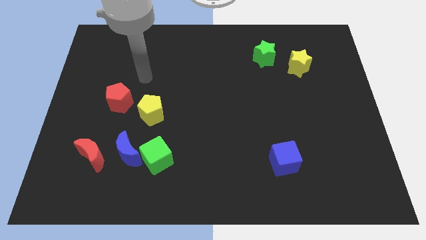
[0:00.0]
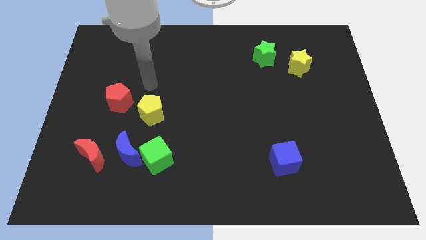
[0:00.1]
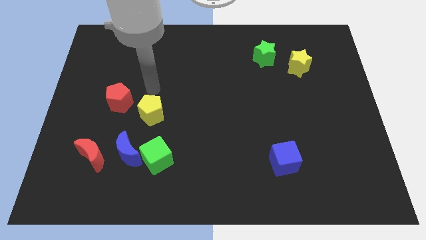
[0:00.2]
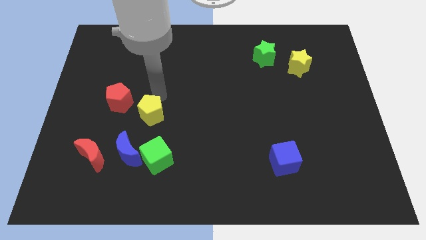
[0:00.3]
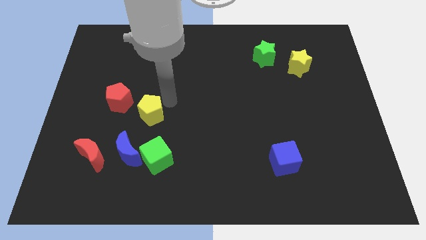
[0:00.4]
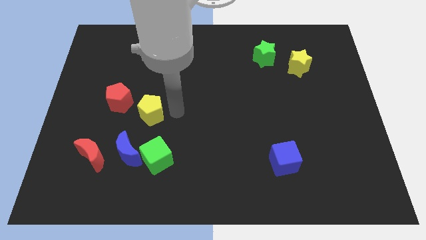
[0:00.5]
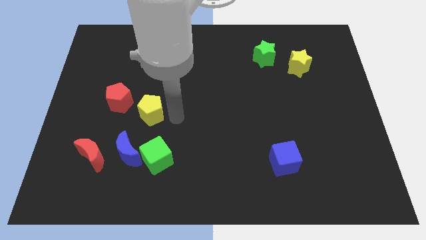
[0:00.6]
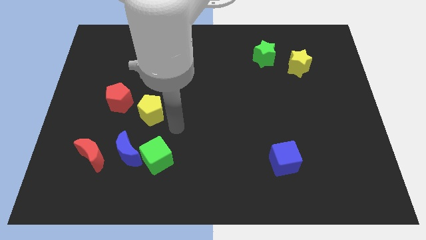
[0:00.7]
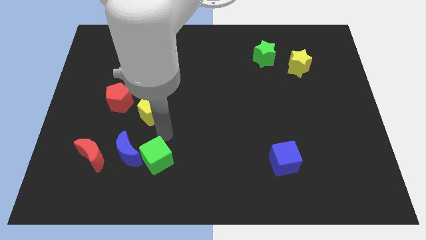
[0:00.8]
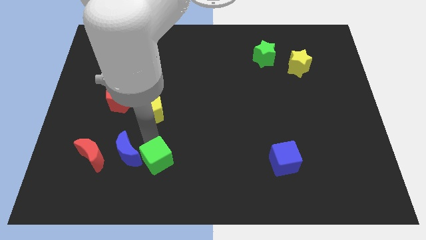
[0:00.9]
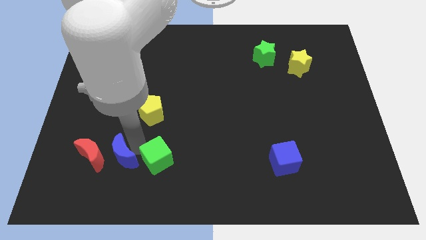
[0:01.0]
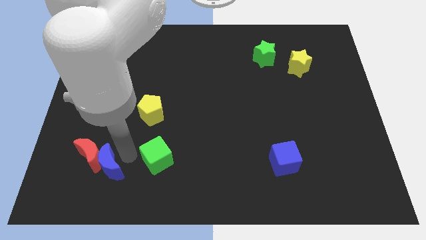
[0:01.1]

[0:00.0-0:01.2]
separate the green cube from the blue moon

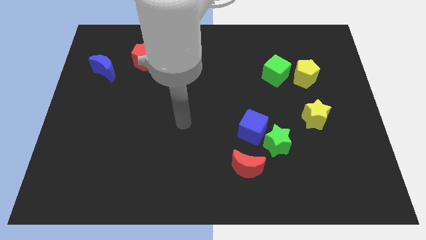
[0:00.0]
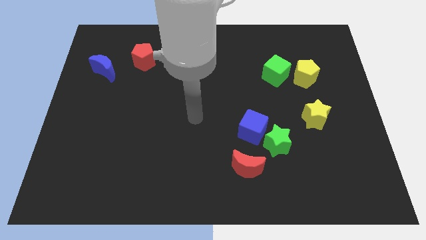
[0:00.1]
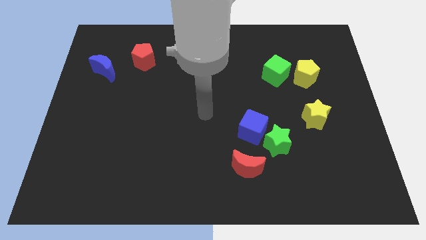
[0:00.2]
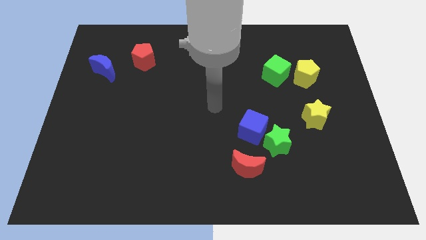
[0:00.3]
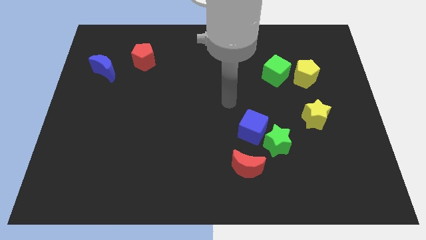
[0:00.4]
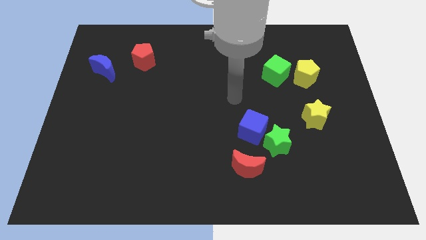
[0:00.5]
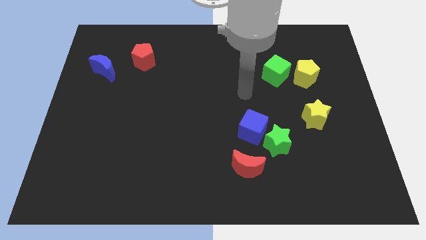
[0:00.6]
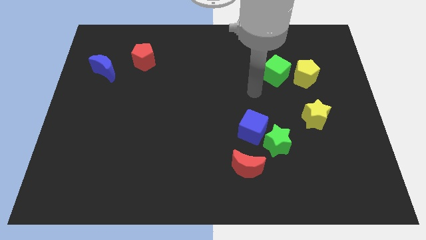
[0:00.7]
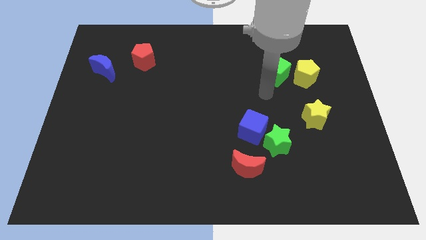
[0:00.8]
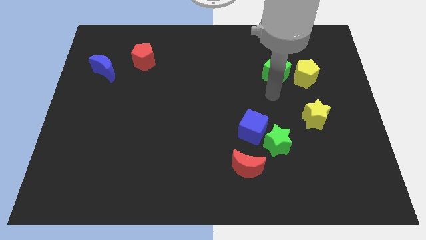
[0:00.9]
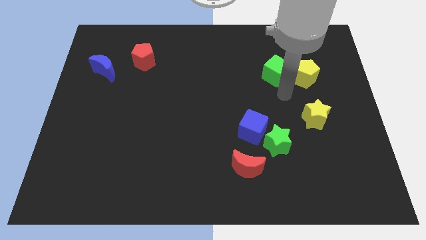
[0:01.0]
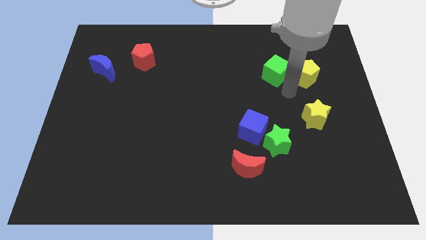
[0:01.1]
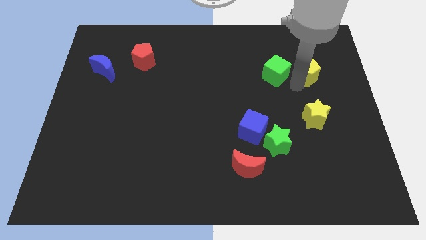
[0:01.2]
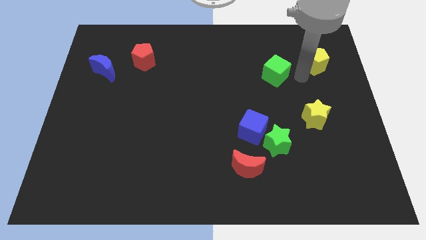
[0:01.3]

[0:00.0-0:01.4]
move the green cube away from the yellow pentagon

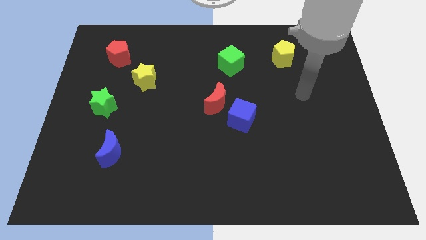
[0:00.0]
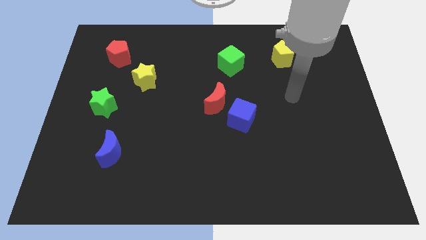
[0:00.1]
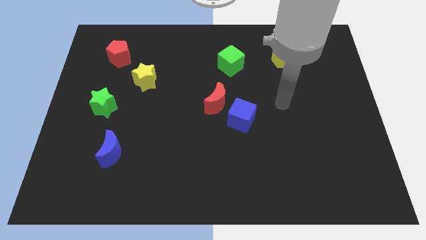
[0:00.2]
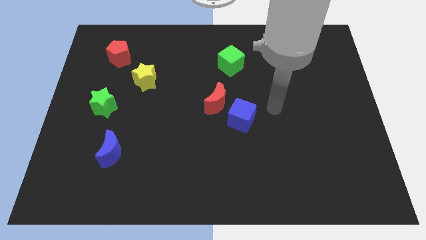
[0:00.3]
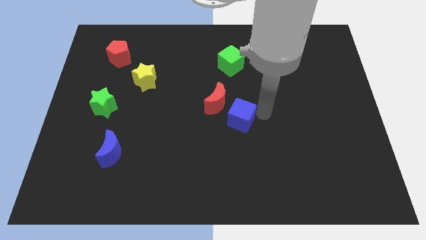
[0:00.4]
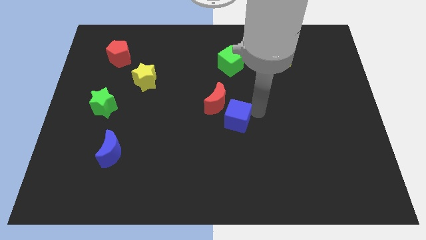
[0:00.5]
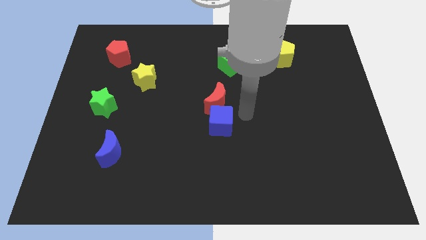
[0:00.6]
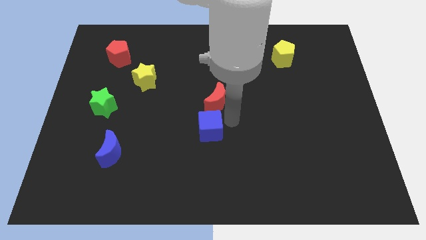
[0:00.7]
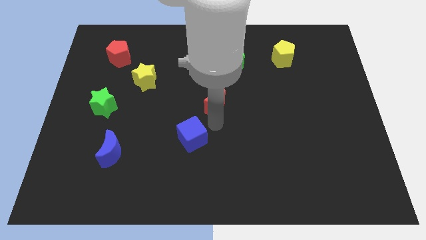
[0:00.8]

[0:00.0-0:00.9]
separate the red moon from the blue cube

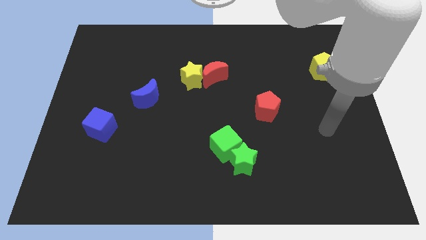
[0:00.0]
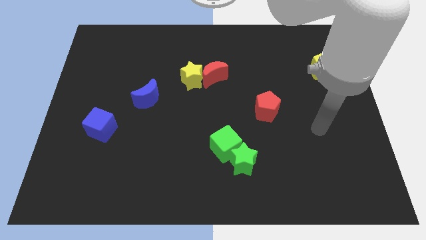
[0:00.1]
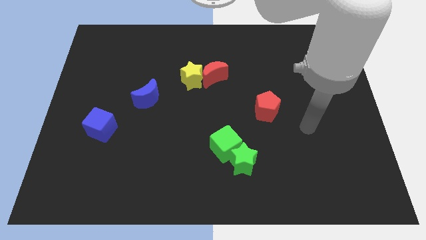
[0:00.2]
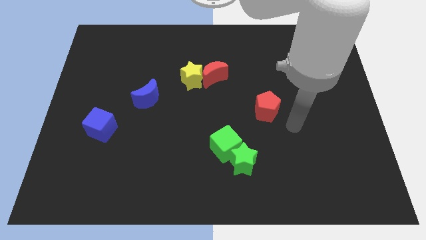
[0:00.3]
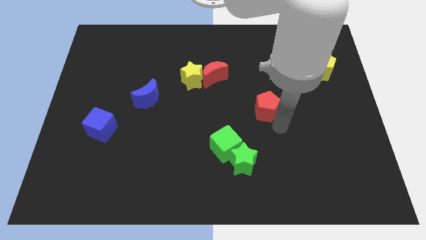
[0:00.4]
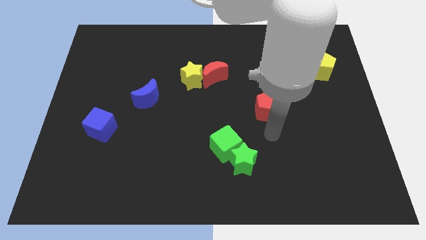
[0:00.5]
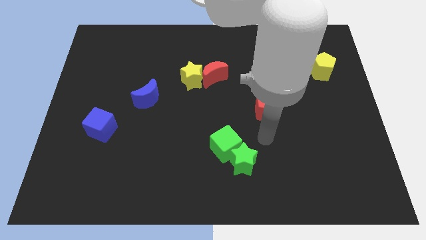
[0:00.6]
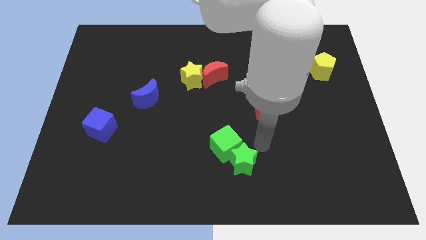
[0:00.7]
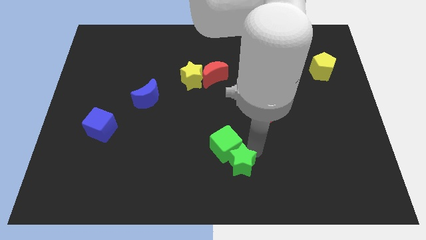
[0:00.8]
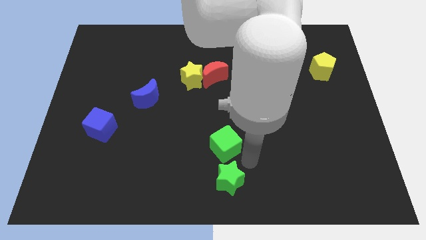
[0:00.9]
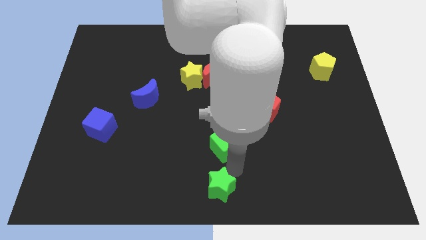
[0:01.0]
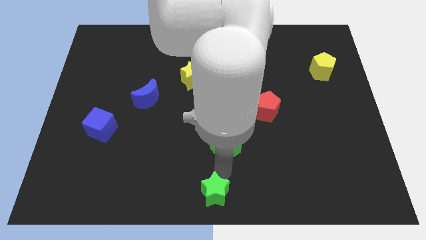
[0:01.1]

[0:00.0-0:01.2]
pull the green cube apart from the green star

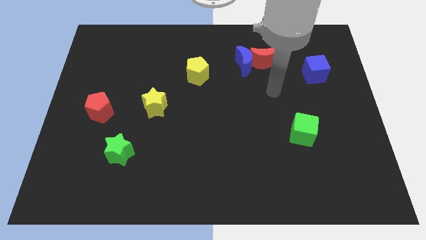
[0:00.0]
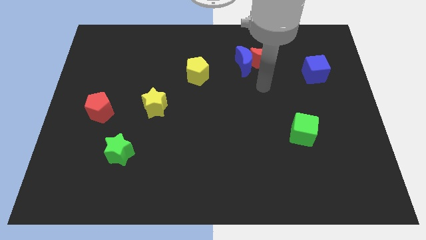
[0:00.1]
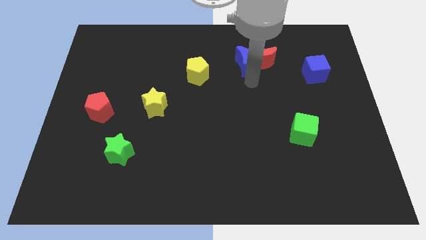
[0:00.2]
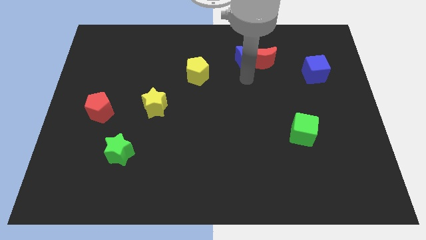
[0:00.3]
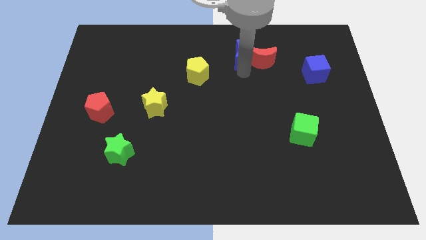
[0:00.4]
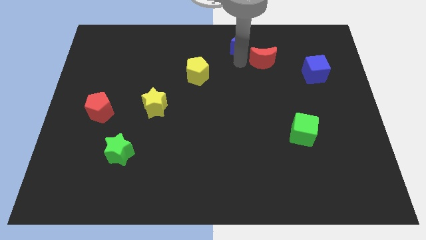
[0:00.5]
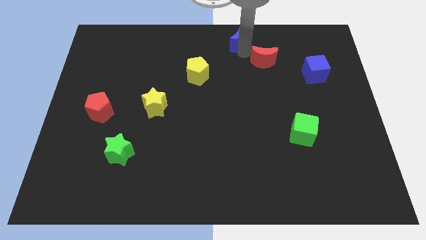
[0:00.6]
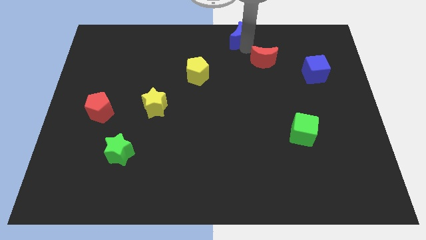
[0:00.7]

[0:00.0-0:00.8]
pull the red moon apart from the blue moon

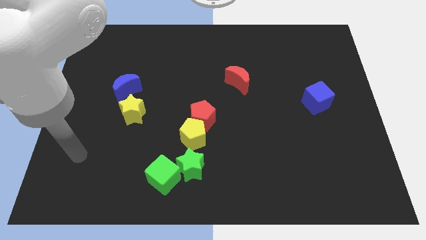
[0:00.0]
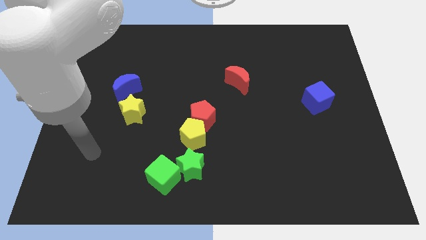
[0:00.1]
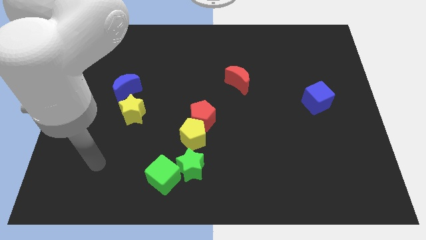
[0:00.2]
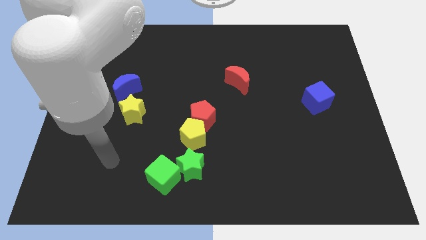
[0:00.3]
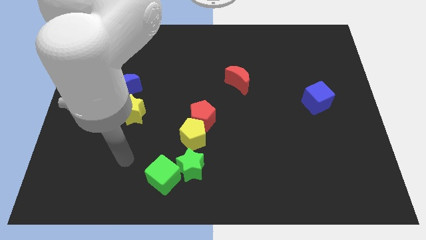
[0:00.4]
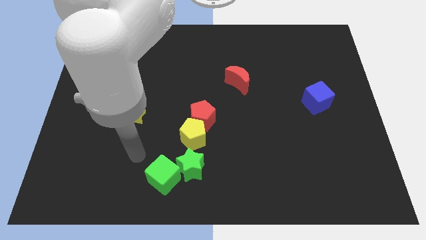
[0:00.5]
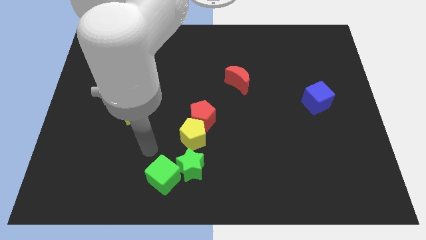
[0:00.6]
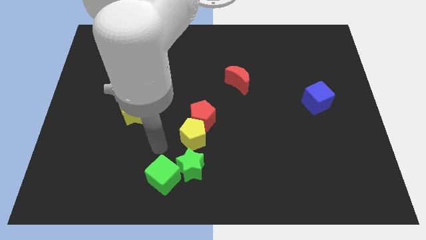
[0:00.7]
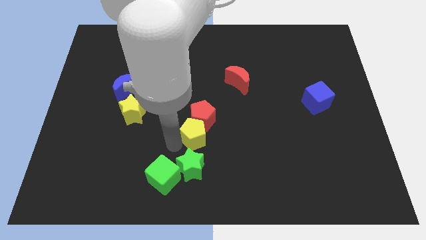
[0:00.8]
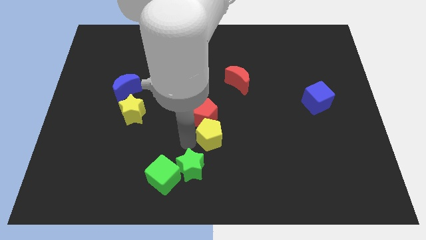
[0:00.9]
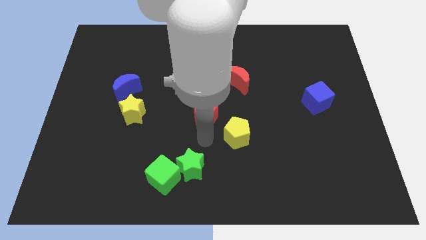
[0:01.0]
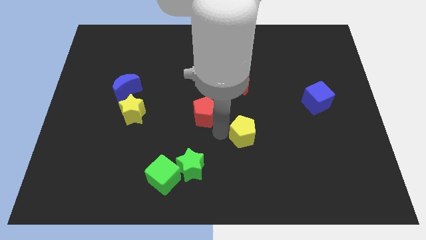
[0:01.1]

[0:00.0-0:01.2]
separate the red pentagon from the yellow pentagon

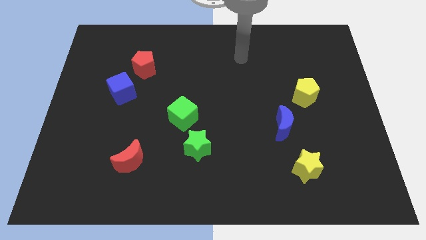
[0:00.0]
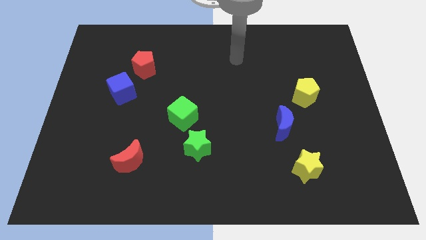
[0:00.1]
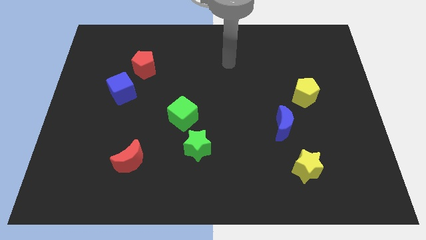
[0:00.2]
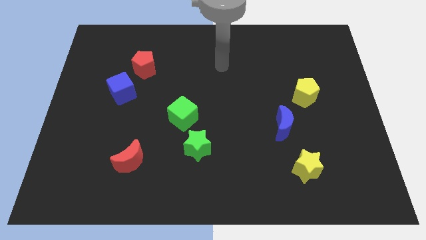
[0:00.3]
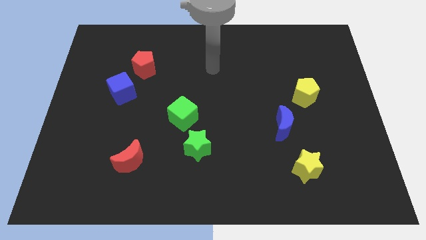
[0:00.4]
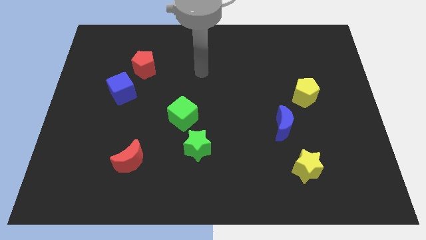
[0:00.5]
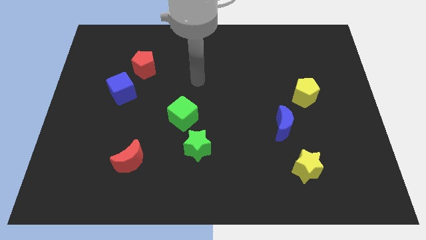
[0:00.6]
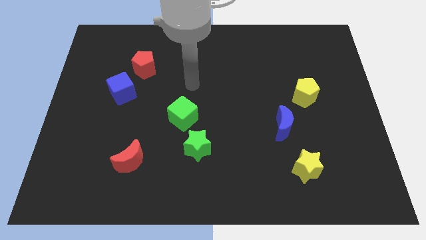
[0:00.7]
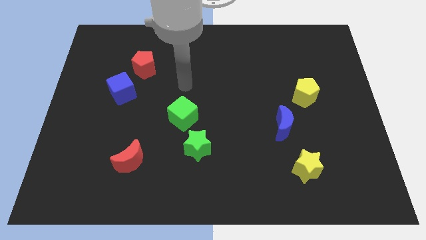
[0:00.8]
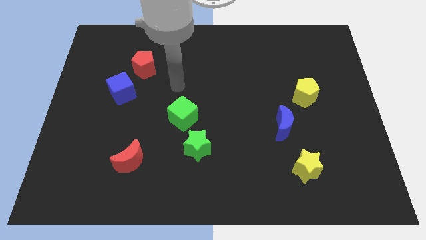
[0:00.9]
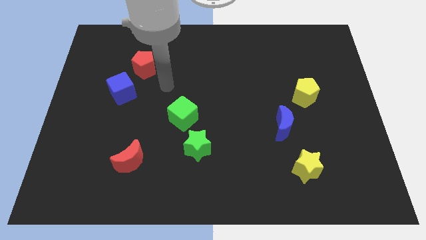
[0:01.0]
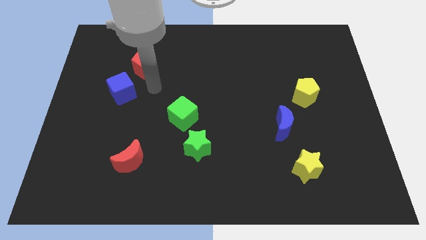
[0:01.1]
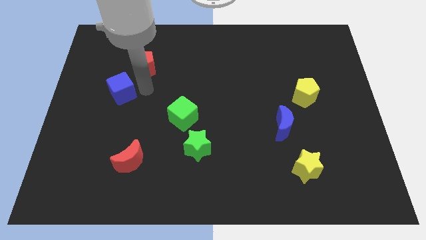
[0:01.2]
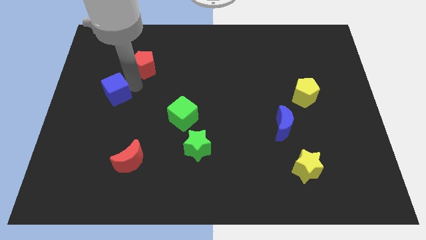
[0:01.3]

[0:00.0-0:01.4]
separate the red pentagon from the blue cube

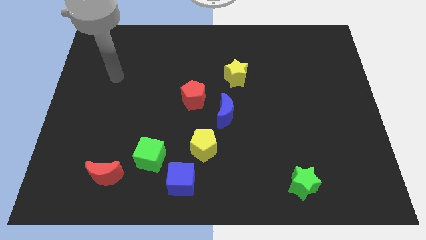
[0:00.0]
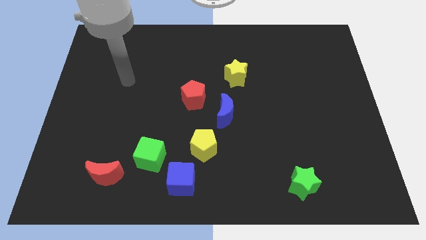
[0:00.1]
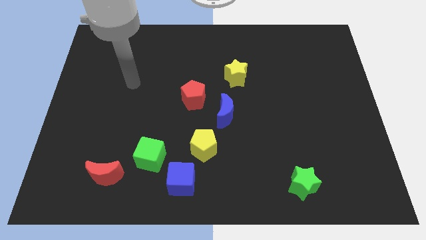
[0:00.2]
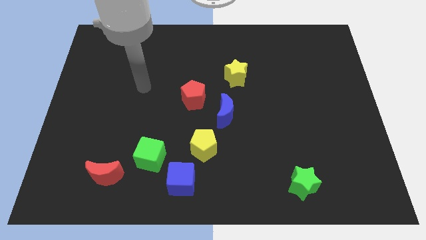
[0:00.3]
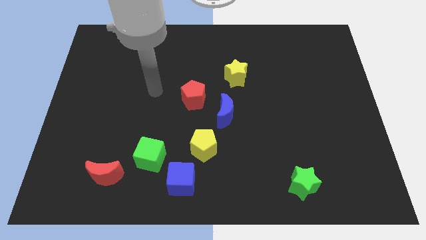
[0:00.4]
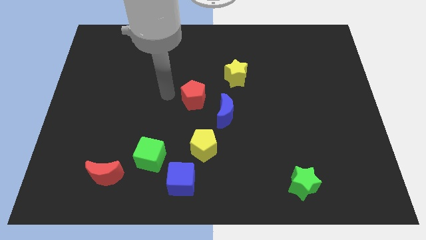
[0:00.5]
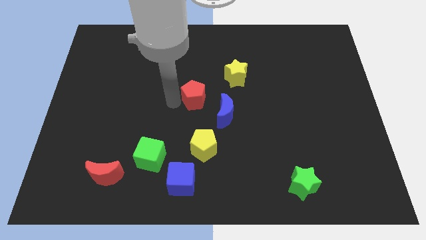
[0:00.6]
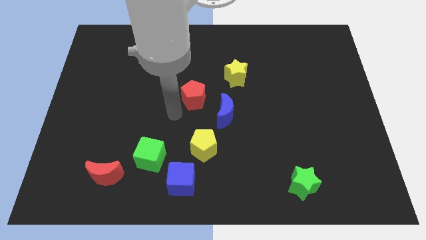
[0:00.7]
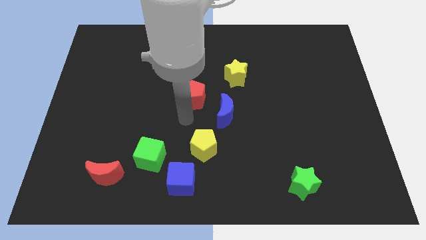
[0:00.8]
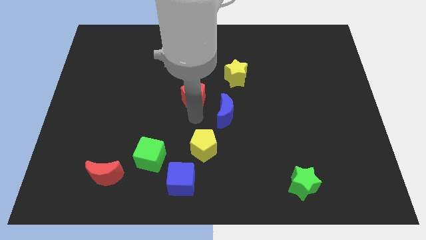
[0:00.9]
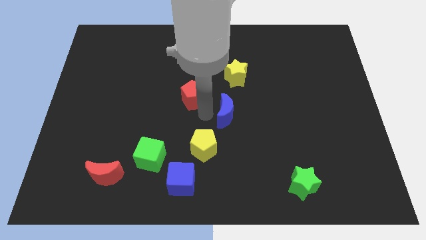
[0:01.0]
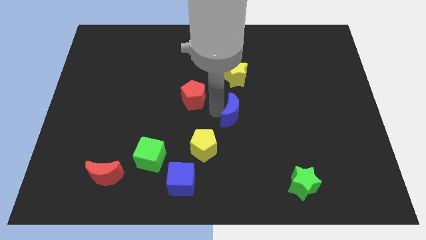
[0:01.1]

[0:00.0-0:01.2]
move the red pentagon away from the blue moon
